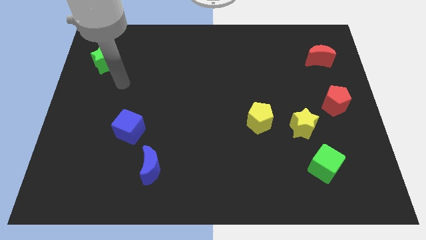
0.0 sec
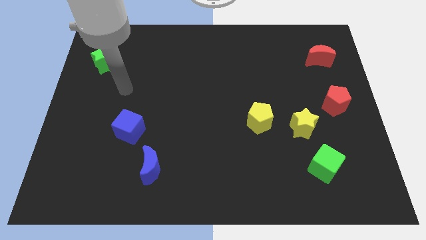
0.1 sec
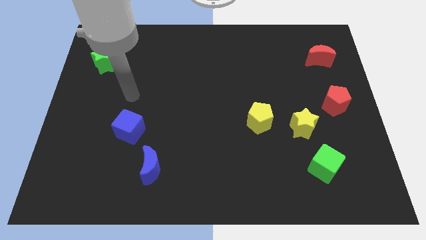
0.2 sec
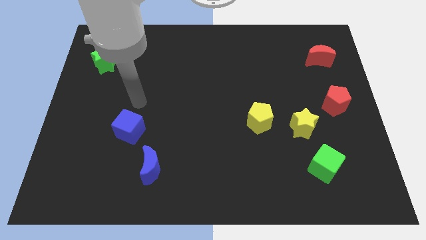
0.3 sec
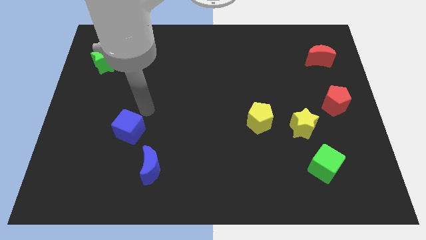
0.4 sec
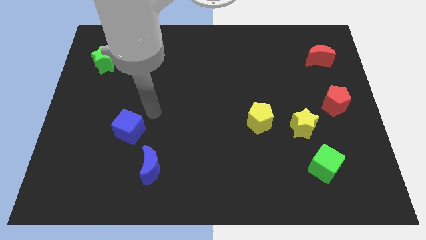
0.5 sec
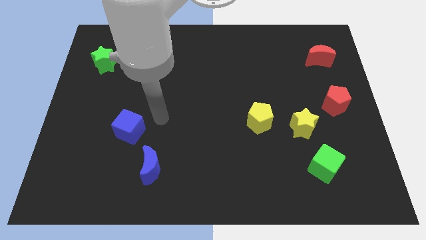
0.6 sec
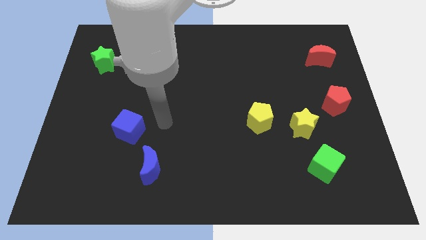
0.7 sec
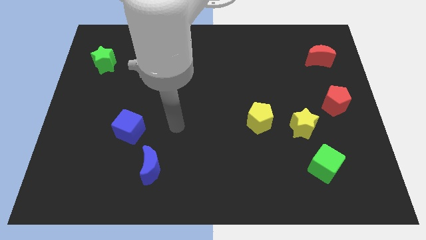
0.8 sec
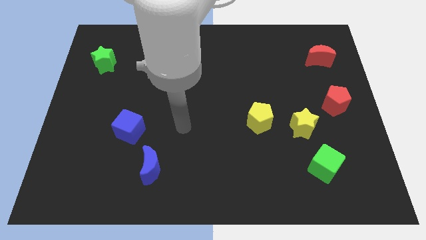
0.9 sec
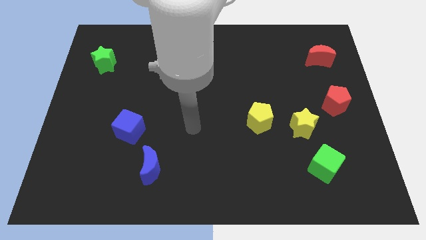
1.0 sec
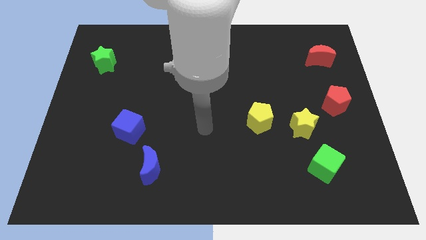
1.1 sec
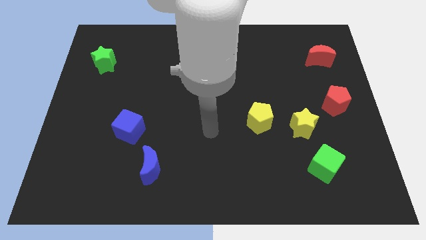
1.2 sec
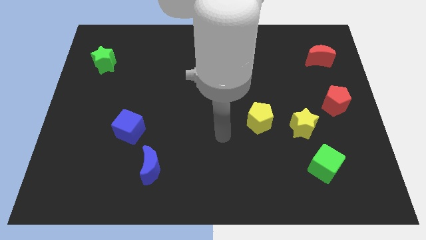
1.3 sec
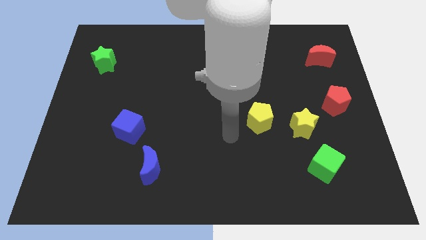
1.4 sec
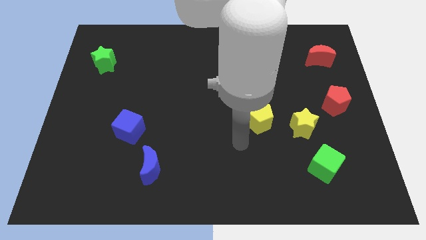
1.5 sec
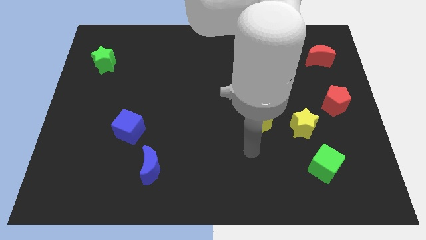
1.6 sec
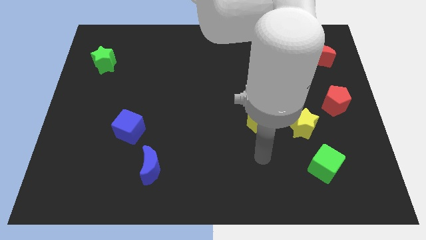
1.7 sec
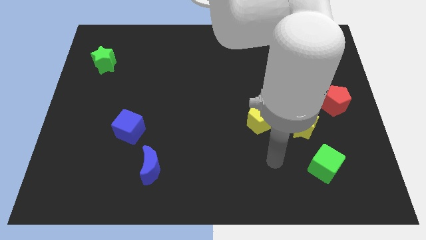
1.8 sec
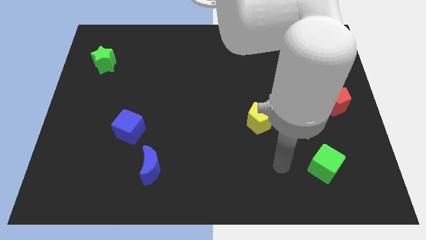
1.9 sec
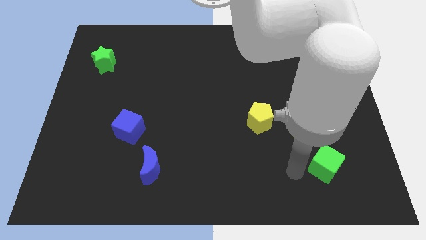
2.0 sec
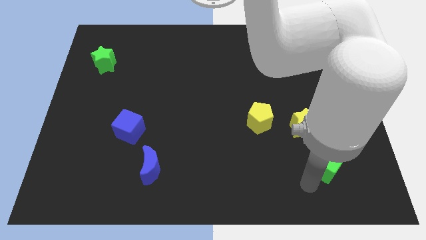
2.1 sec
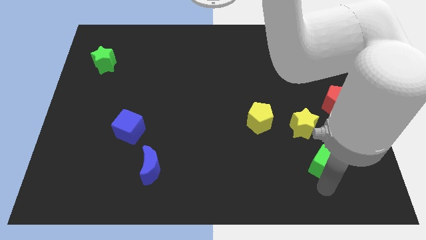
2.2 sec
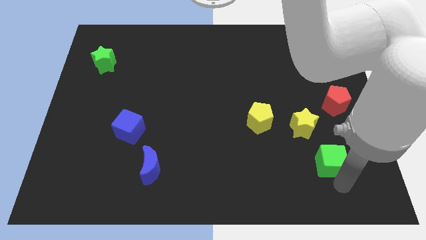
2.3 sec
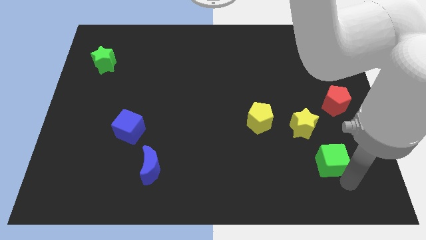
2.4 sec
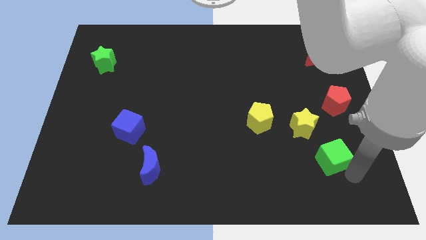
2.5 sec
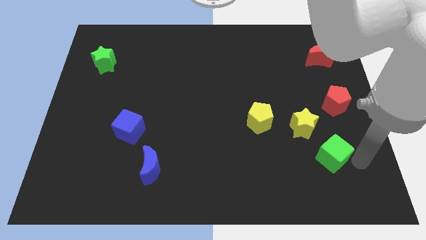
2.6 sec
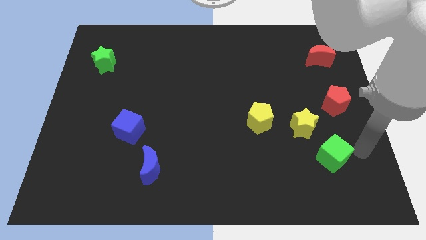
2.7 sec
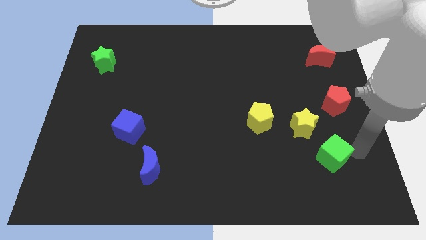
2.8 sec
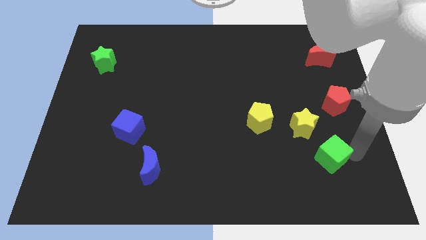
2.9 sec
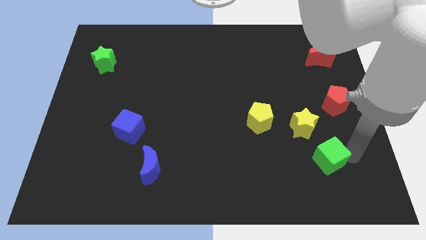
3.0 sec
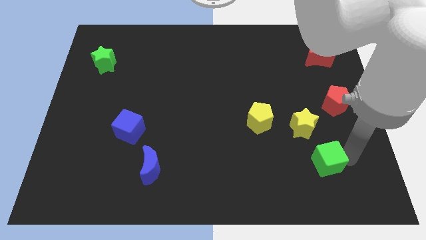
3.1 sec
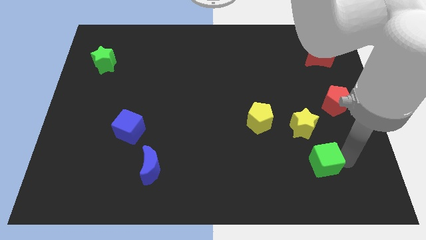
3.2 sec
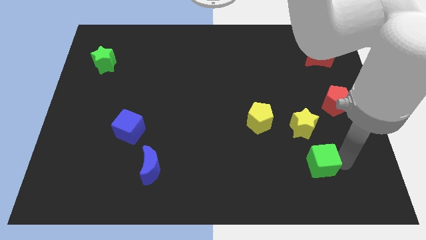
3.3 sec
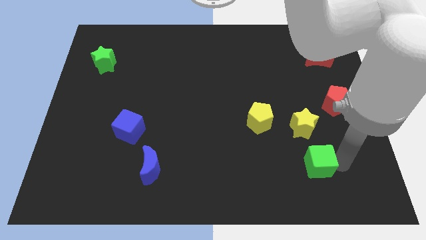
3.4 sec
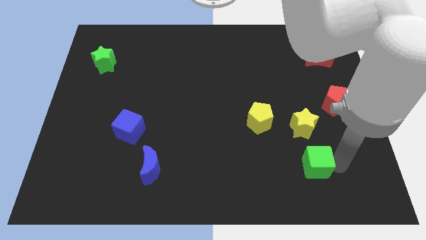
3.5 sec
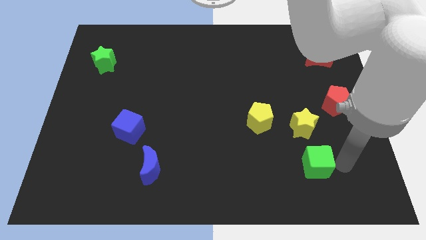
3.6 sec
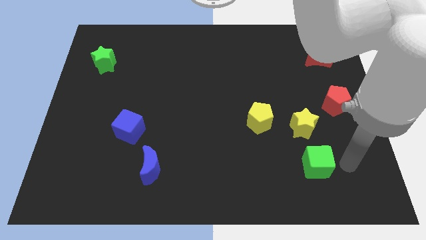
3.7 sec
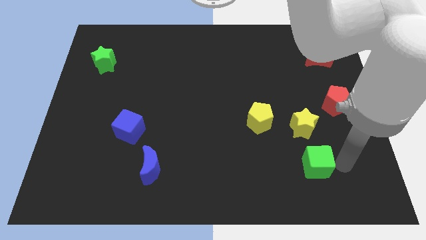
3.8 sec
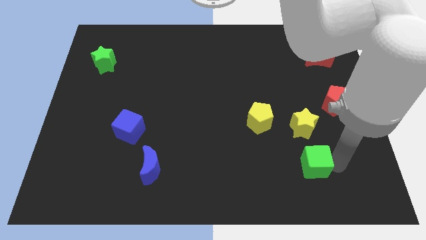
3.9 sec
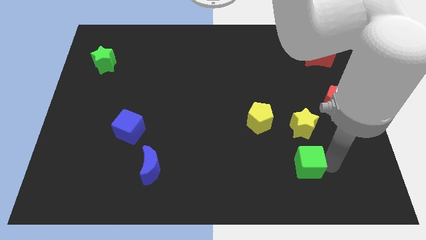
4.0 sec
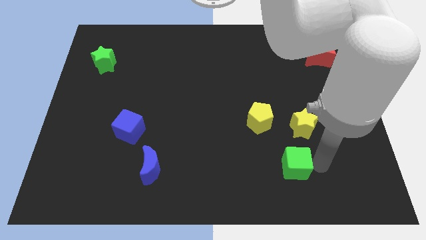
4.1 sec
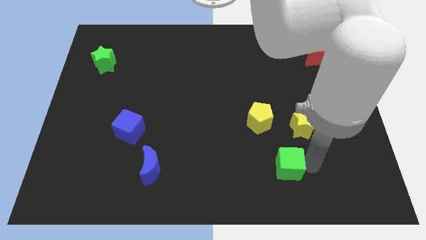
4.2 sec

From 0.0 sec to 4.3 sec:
slightly slide the green cube left

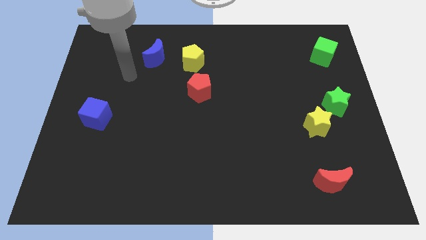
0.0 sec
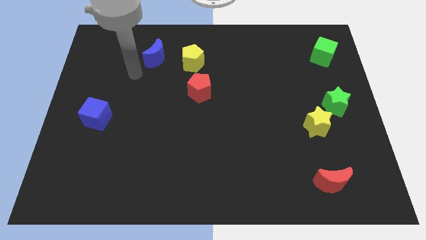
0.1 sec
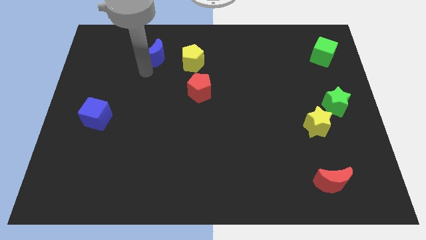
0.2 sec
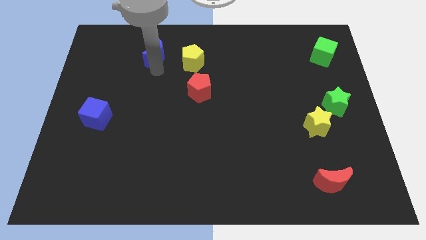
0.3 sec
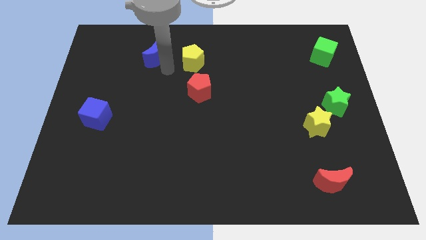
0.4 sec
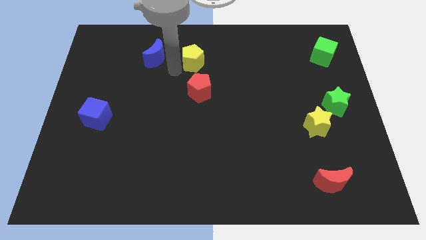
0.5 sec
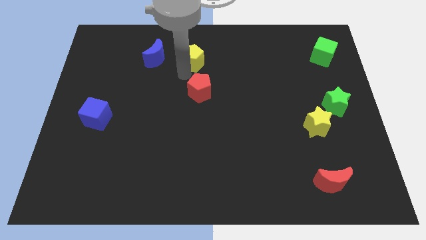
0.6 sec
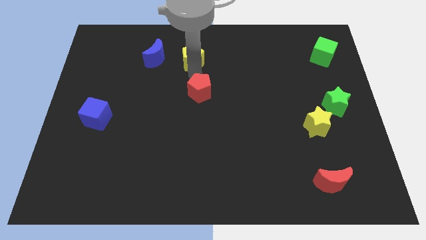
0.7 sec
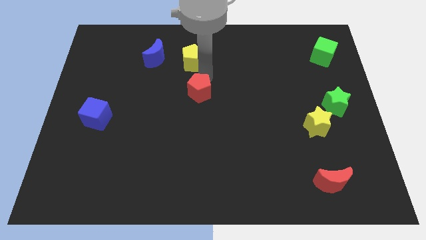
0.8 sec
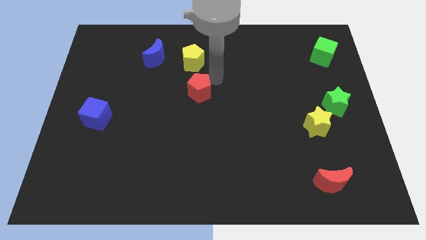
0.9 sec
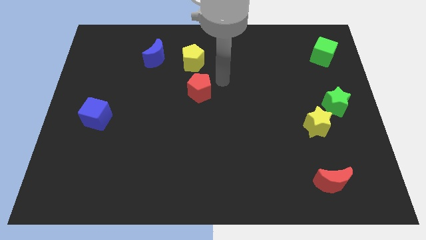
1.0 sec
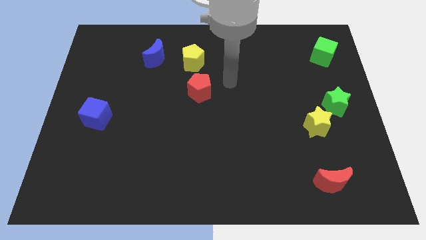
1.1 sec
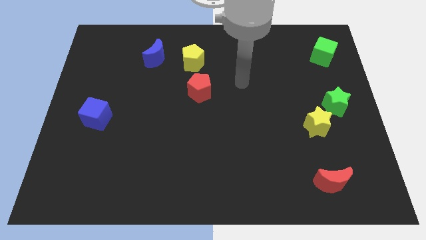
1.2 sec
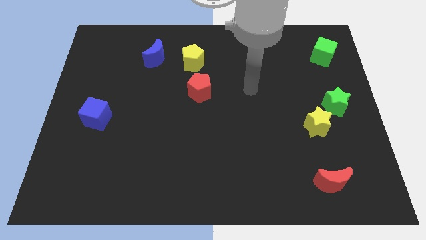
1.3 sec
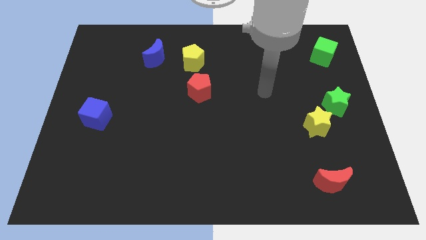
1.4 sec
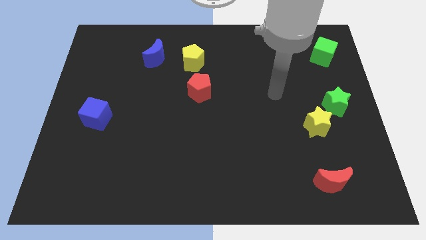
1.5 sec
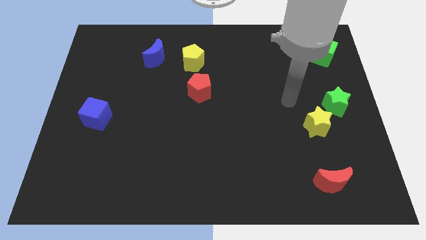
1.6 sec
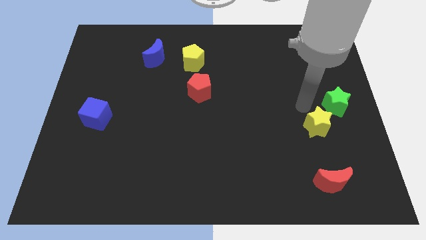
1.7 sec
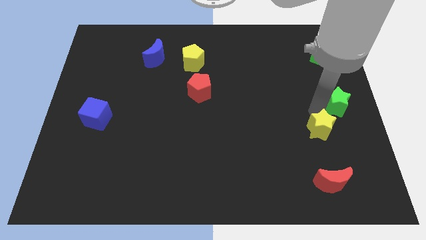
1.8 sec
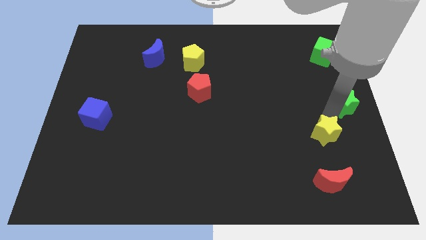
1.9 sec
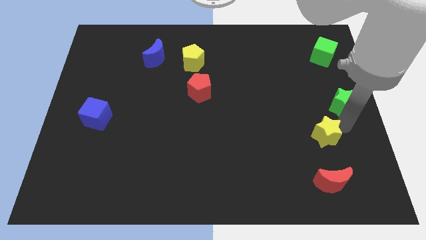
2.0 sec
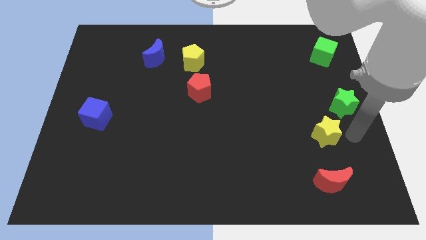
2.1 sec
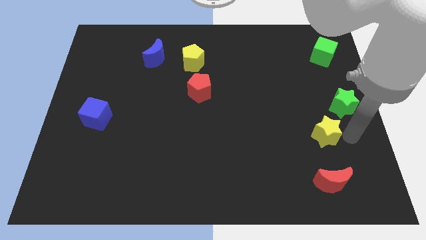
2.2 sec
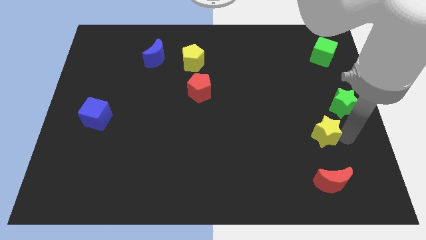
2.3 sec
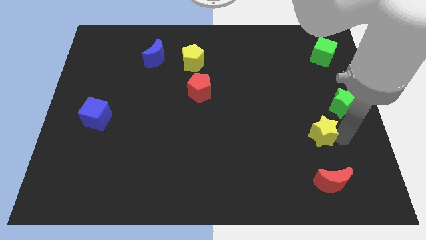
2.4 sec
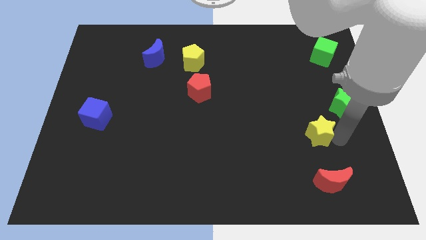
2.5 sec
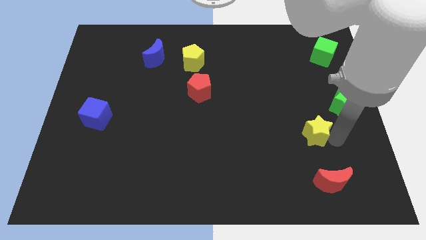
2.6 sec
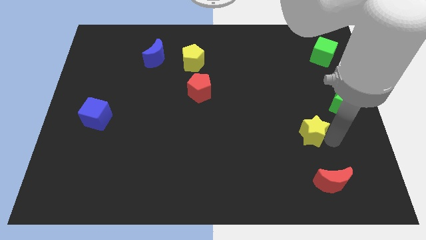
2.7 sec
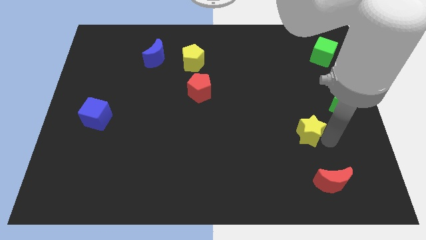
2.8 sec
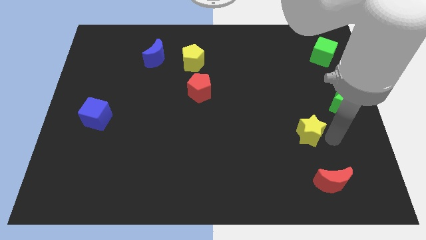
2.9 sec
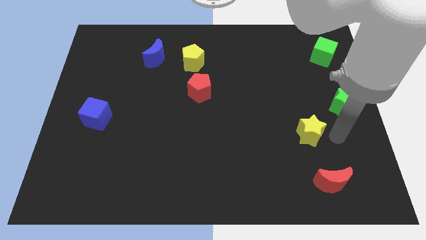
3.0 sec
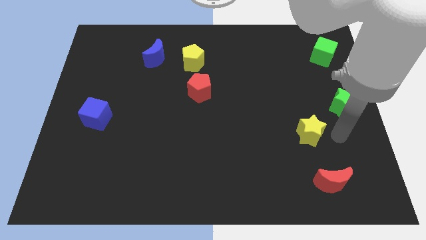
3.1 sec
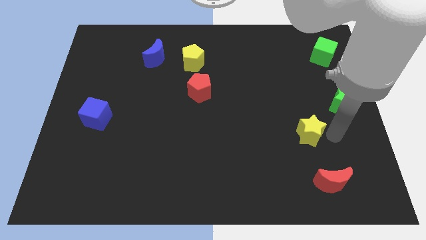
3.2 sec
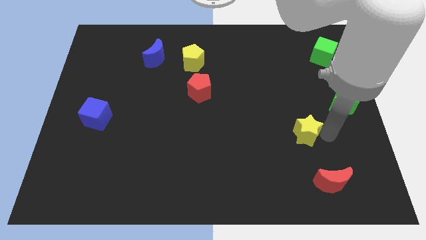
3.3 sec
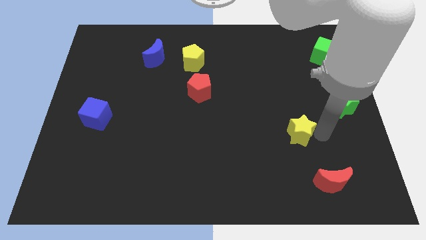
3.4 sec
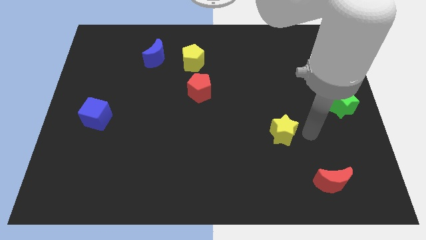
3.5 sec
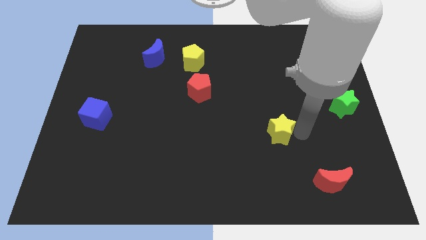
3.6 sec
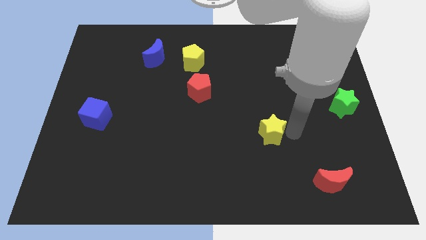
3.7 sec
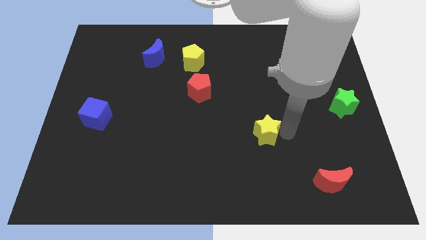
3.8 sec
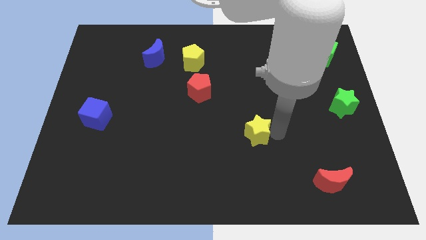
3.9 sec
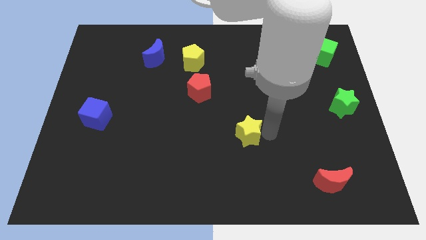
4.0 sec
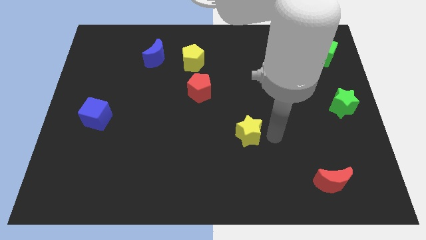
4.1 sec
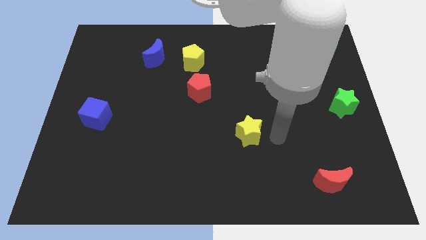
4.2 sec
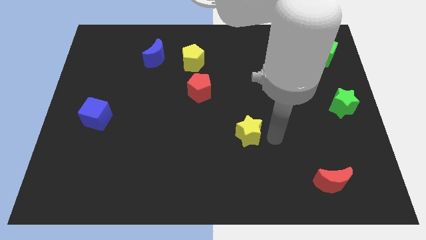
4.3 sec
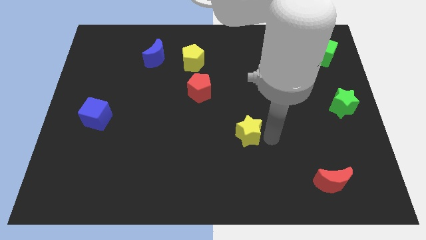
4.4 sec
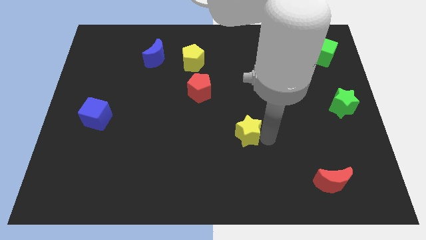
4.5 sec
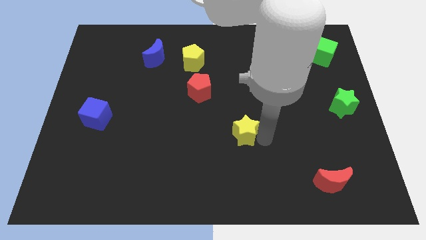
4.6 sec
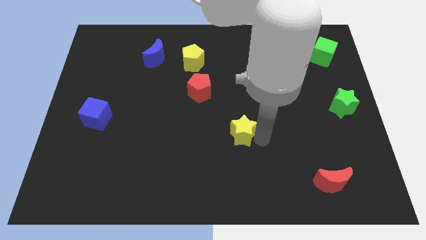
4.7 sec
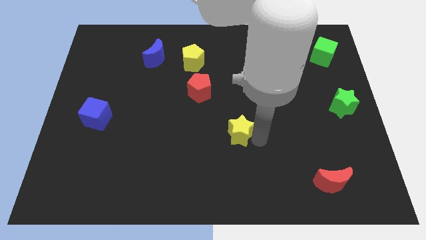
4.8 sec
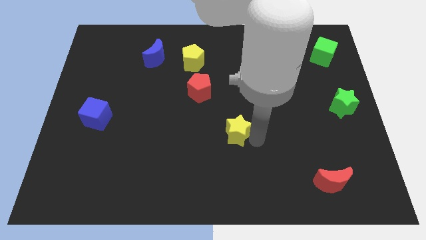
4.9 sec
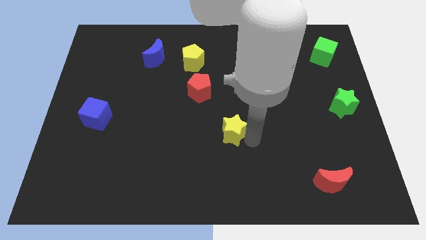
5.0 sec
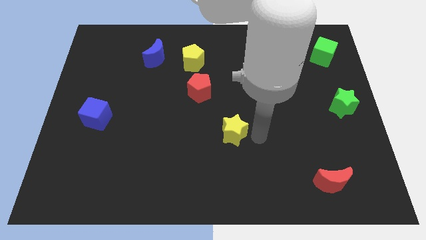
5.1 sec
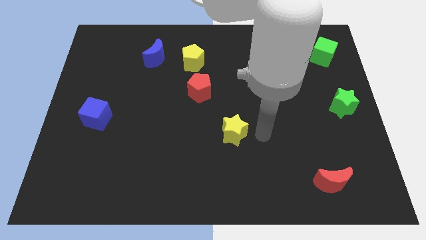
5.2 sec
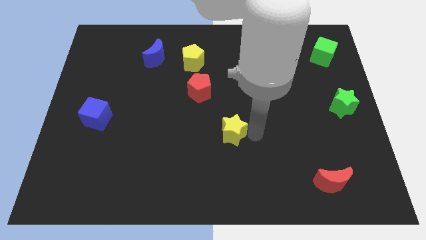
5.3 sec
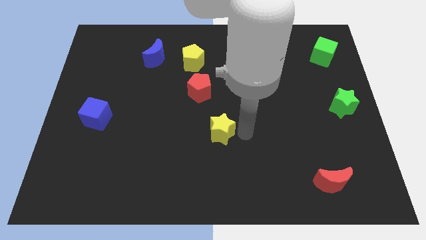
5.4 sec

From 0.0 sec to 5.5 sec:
move the yellow star to the left
